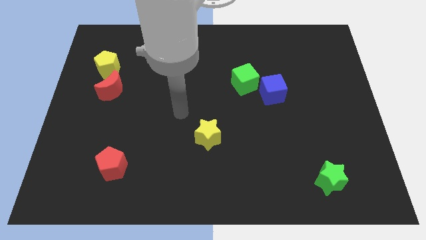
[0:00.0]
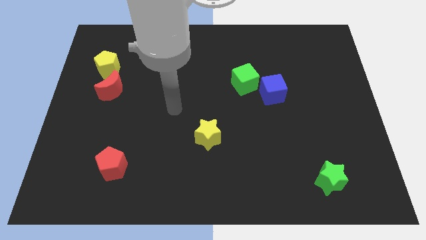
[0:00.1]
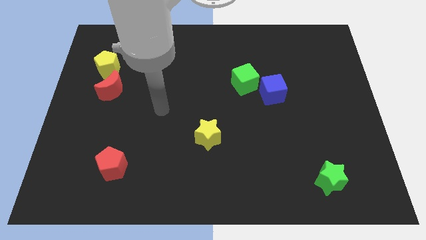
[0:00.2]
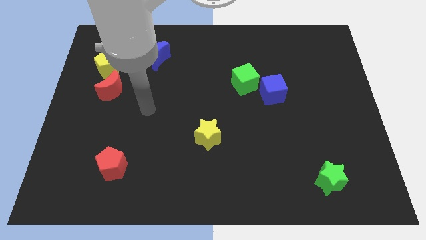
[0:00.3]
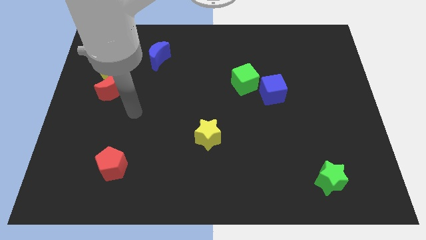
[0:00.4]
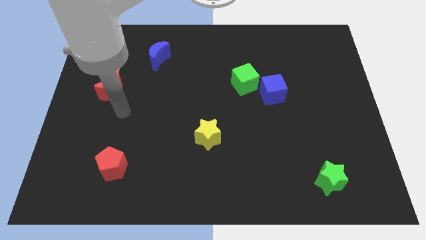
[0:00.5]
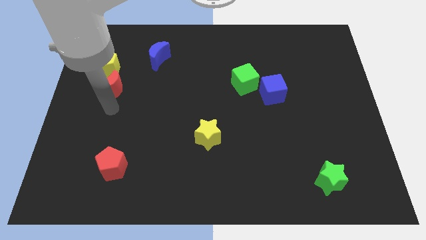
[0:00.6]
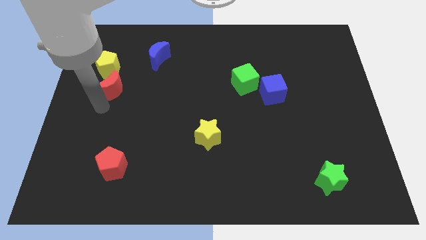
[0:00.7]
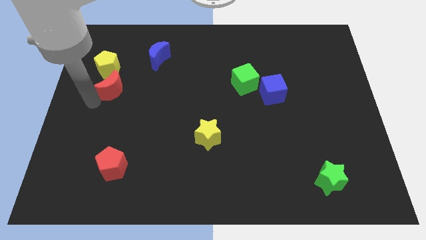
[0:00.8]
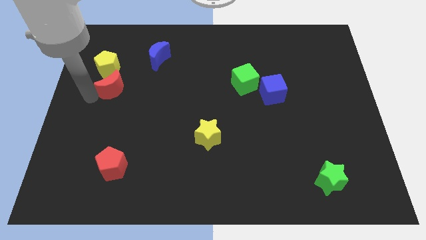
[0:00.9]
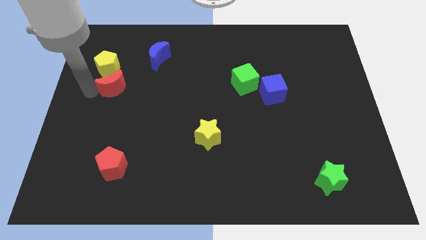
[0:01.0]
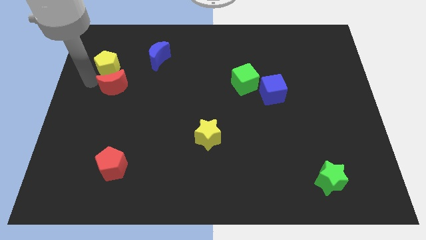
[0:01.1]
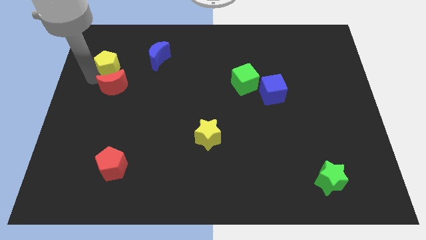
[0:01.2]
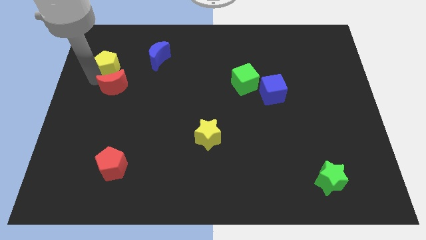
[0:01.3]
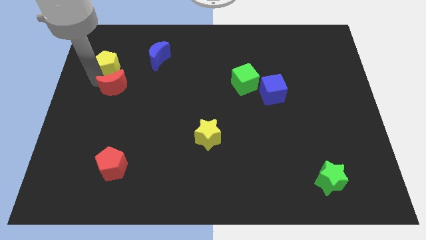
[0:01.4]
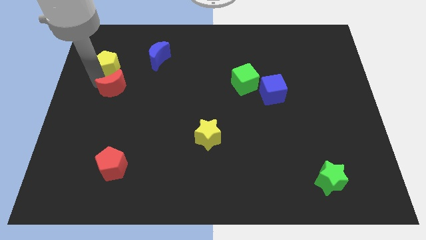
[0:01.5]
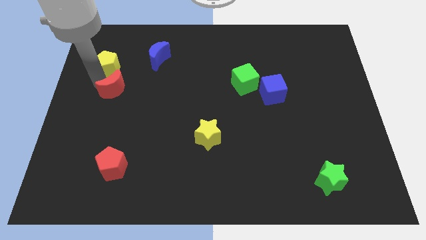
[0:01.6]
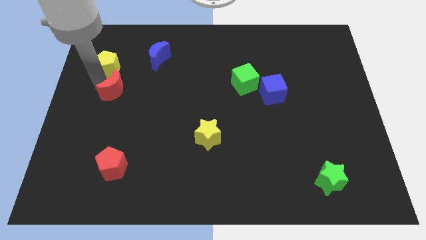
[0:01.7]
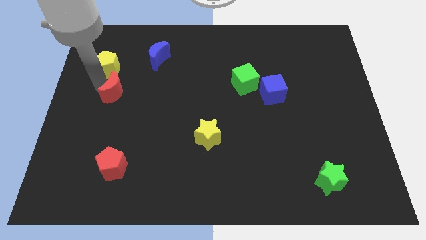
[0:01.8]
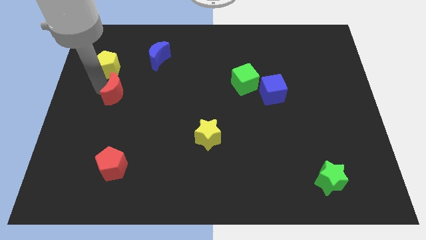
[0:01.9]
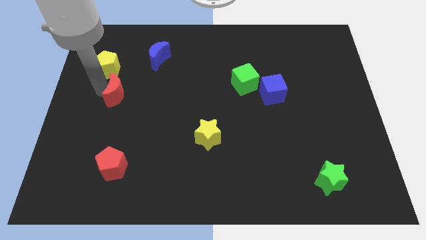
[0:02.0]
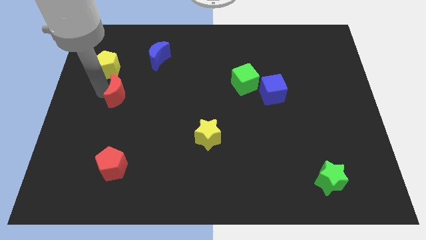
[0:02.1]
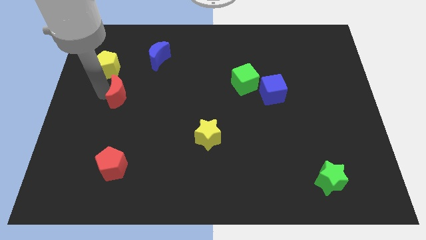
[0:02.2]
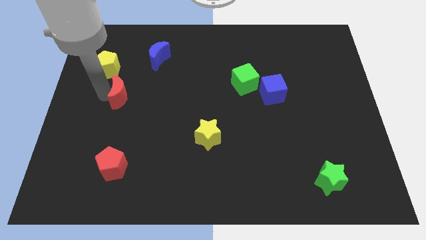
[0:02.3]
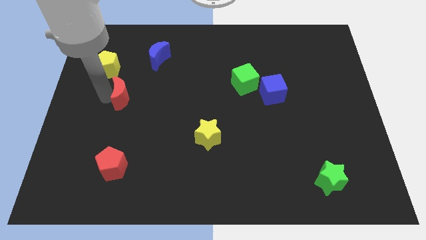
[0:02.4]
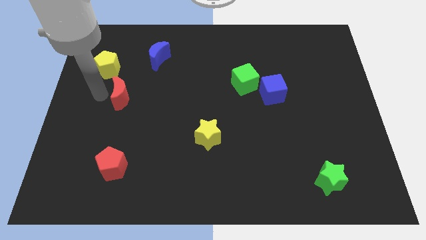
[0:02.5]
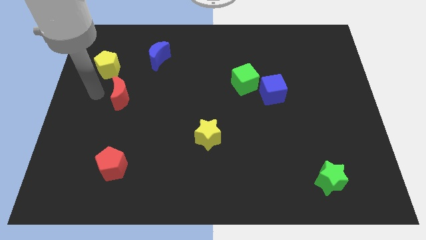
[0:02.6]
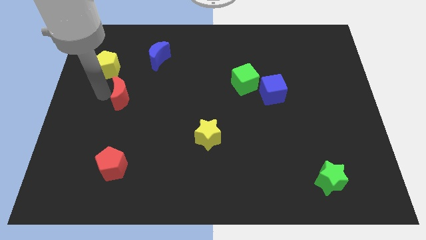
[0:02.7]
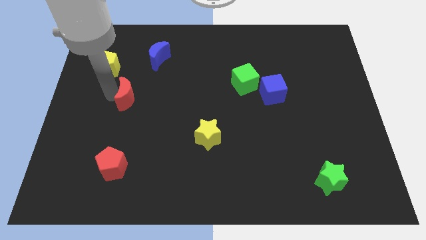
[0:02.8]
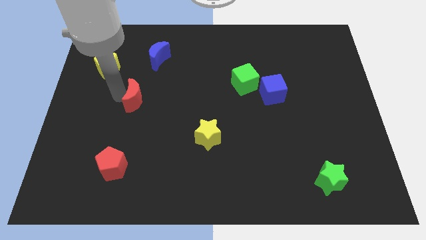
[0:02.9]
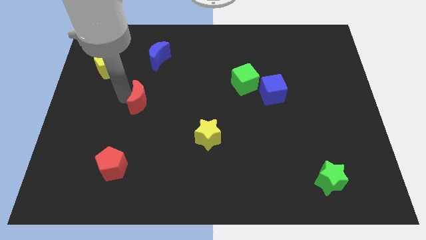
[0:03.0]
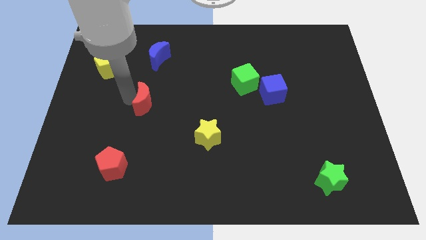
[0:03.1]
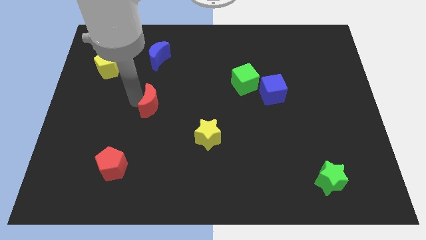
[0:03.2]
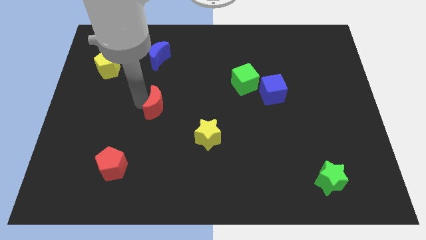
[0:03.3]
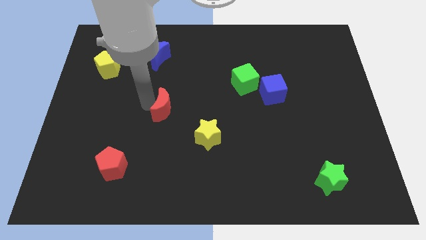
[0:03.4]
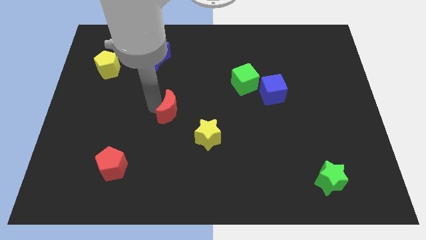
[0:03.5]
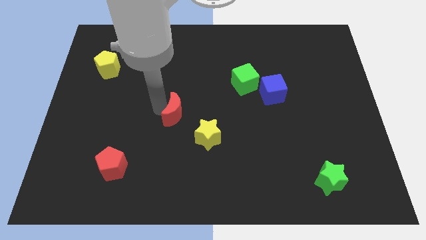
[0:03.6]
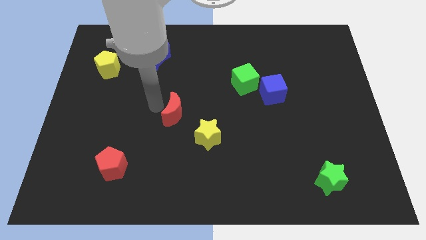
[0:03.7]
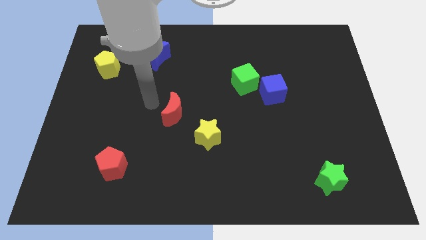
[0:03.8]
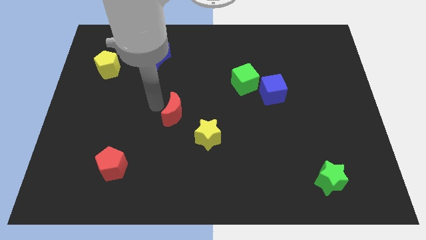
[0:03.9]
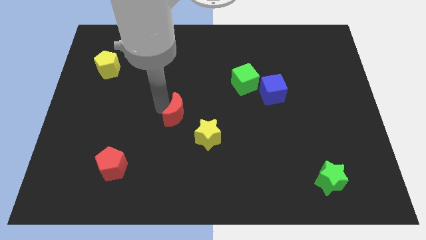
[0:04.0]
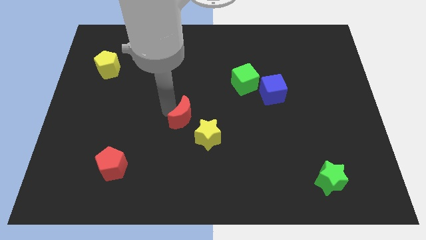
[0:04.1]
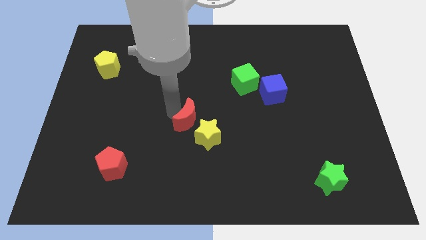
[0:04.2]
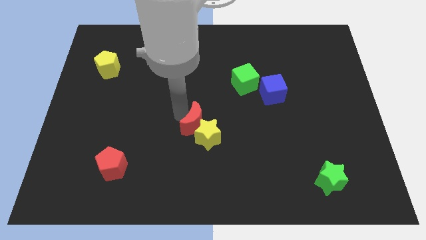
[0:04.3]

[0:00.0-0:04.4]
slide the red moon towards the yellow star

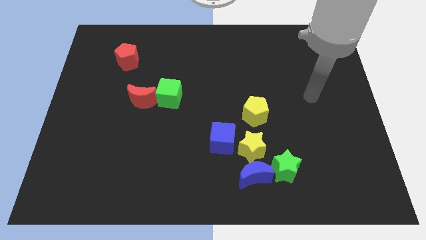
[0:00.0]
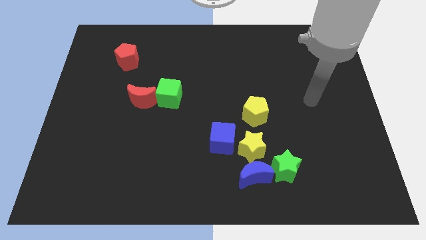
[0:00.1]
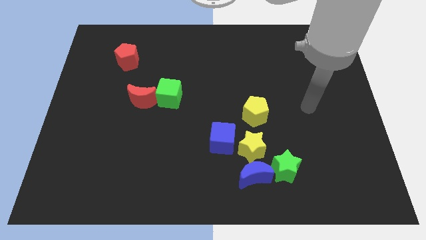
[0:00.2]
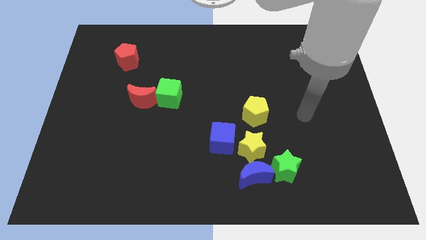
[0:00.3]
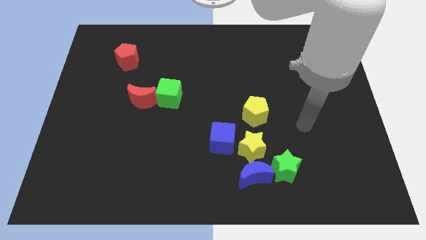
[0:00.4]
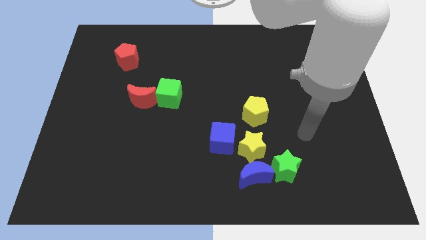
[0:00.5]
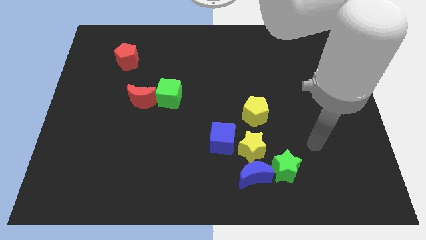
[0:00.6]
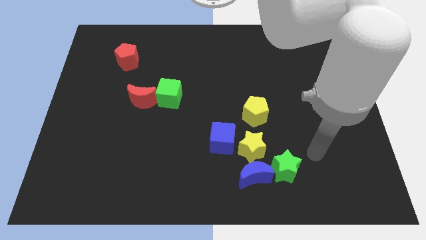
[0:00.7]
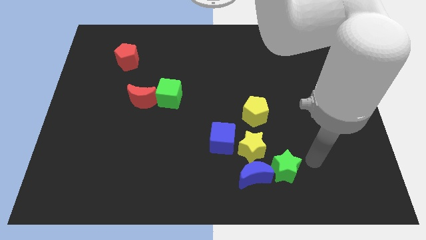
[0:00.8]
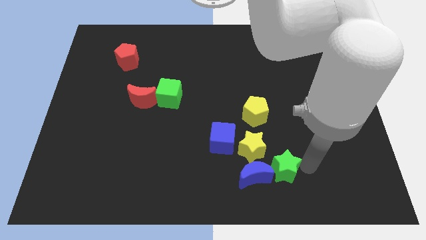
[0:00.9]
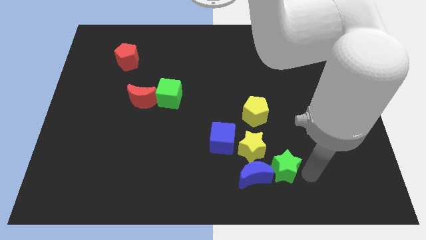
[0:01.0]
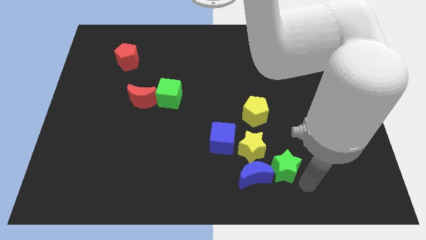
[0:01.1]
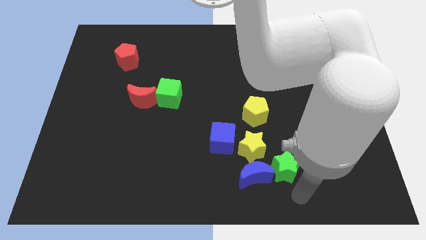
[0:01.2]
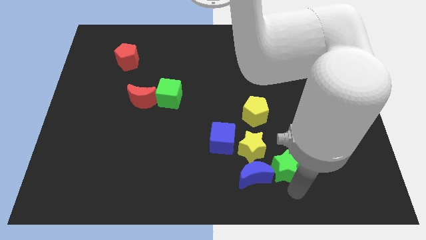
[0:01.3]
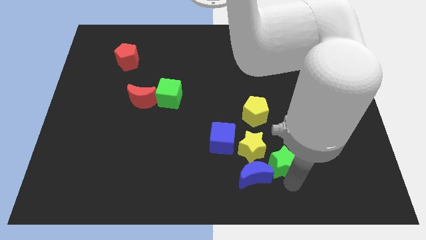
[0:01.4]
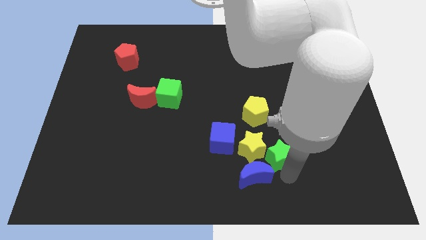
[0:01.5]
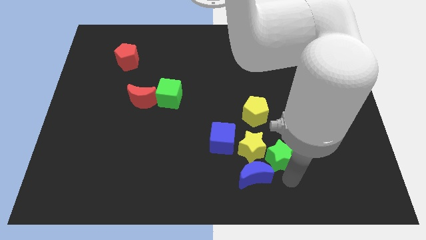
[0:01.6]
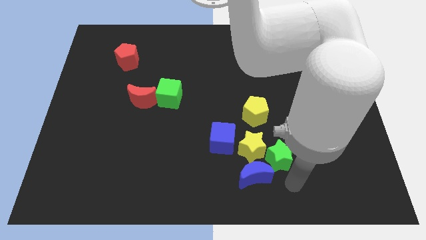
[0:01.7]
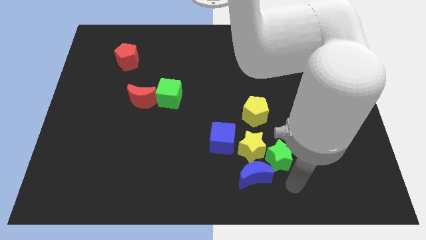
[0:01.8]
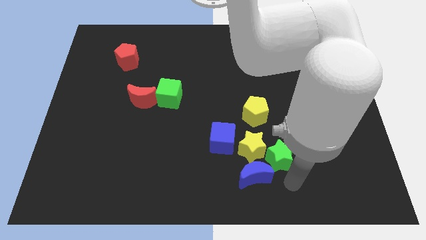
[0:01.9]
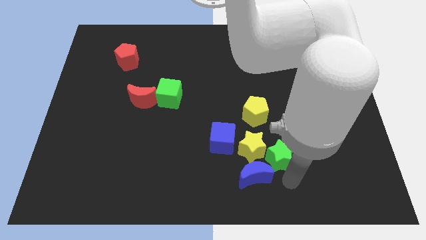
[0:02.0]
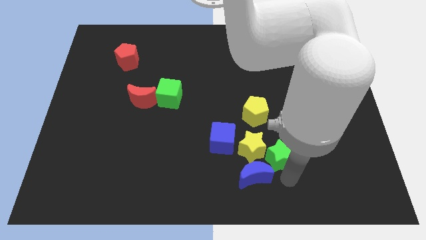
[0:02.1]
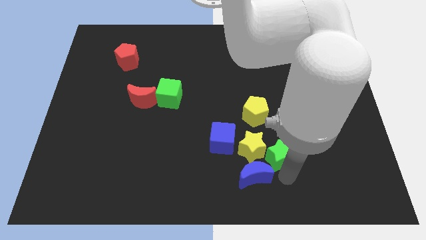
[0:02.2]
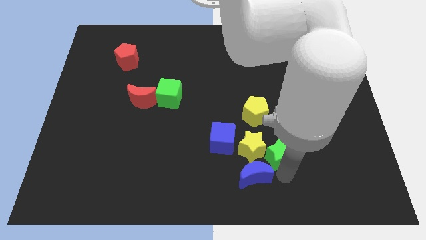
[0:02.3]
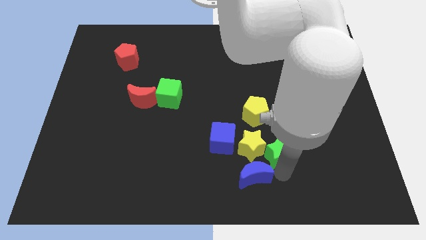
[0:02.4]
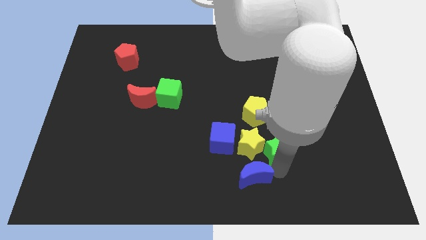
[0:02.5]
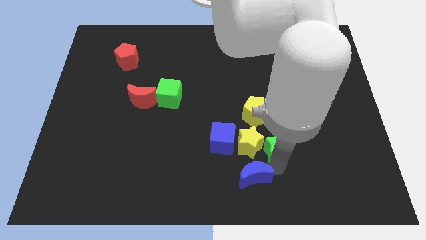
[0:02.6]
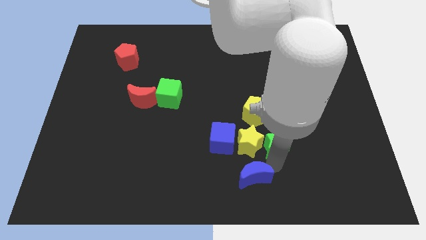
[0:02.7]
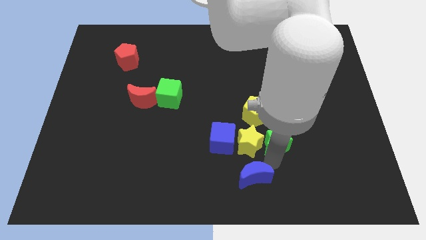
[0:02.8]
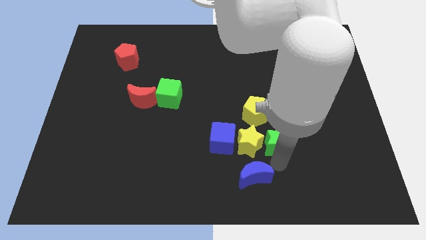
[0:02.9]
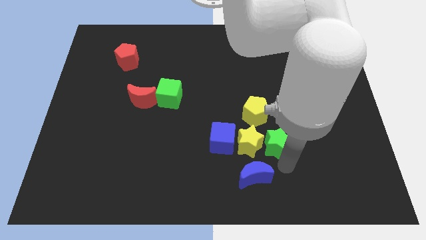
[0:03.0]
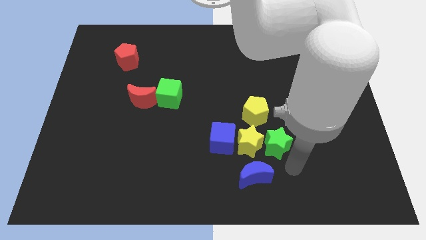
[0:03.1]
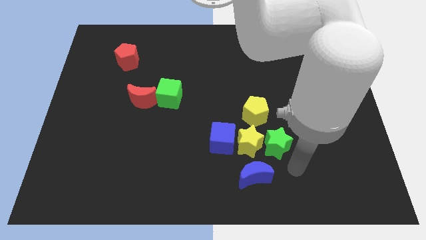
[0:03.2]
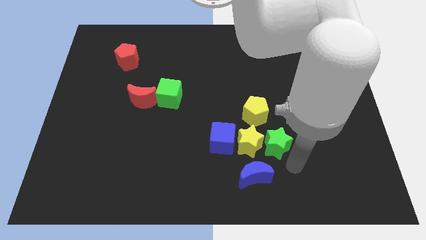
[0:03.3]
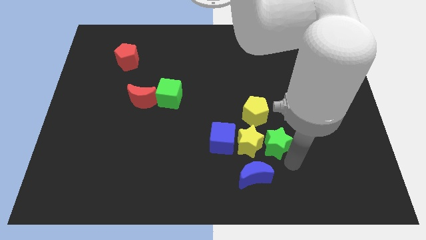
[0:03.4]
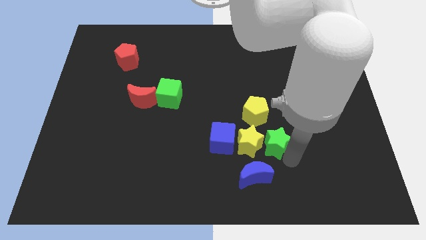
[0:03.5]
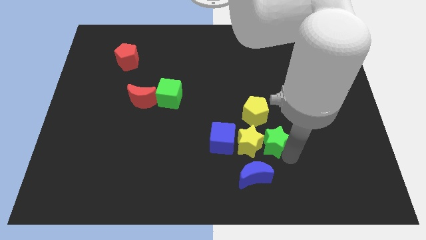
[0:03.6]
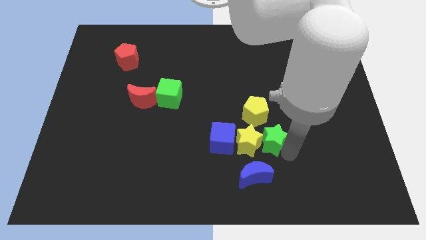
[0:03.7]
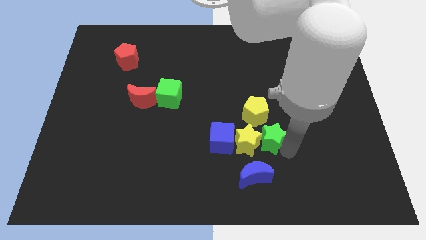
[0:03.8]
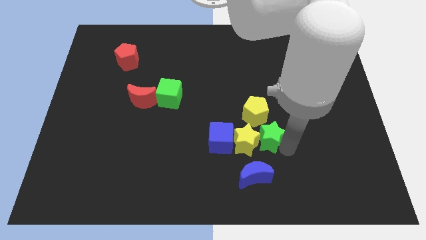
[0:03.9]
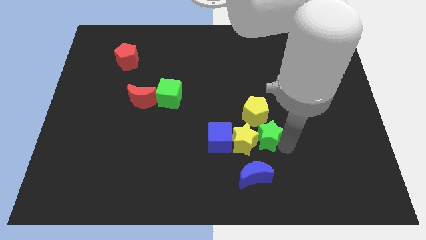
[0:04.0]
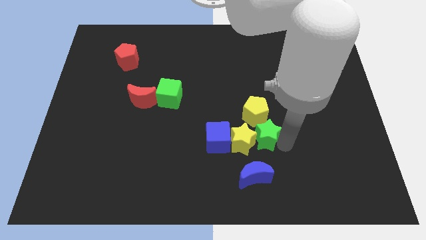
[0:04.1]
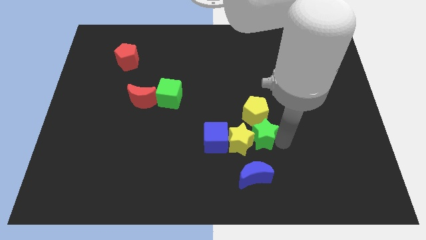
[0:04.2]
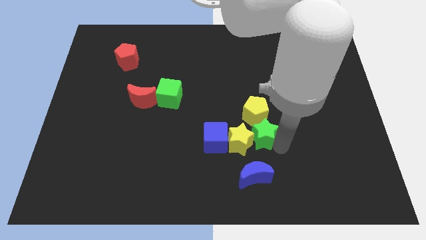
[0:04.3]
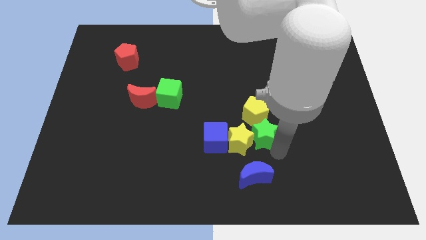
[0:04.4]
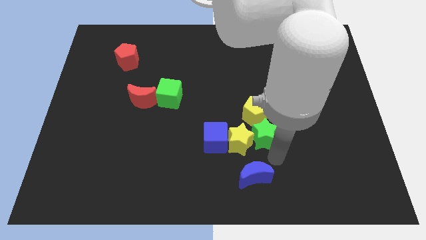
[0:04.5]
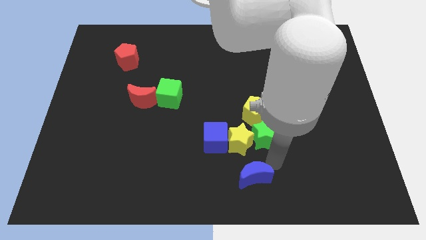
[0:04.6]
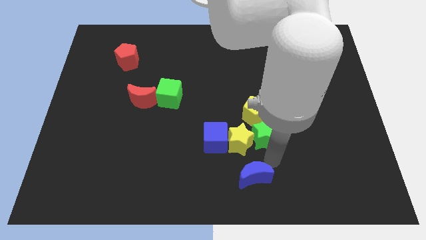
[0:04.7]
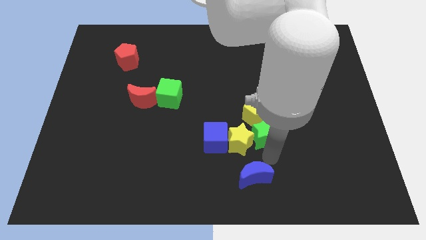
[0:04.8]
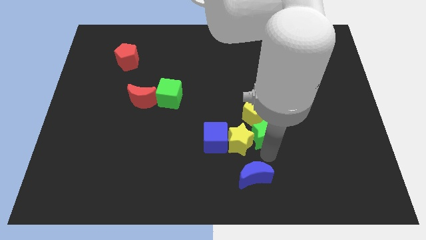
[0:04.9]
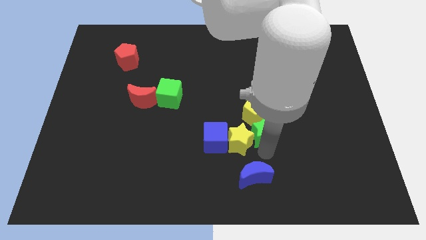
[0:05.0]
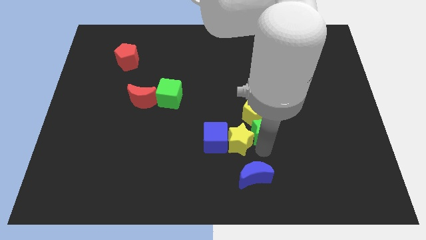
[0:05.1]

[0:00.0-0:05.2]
push the green star close to the yellow pentagon
